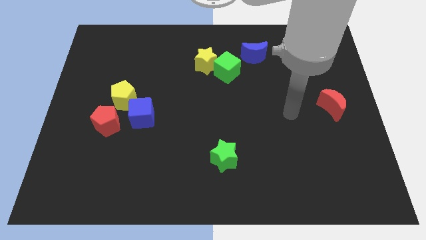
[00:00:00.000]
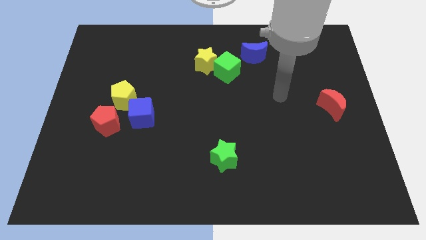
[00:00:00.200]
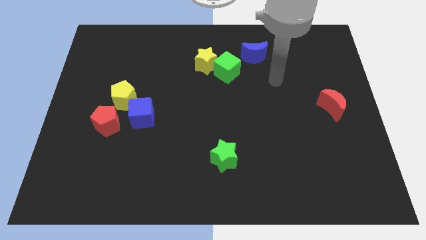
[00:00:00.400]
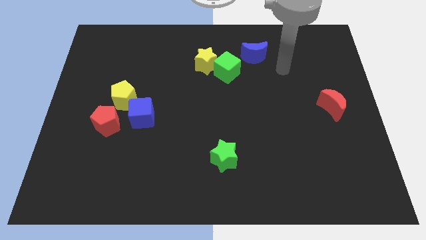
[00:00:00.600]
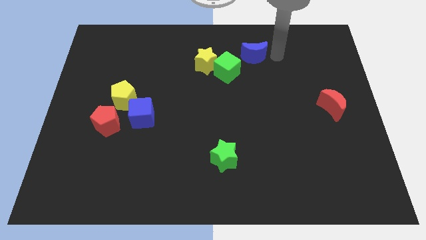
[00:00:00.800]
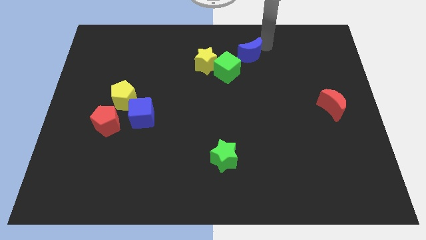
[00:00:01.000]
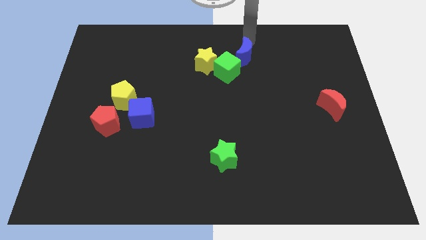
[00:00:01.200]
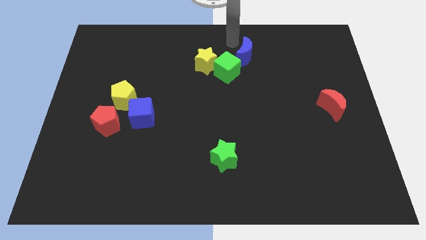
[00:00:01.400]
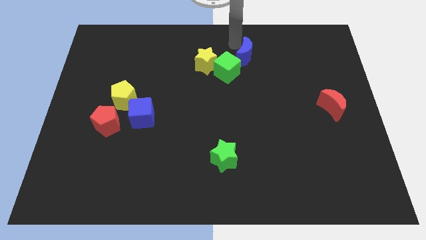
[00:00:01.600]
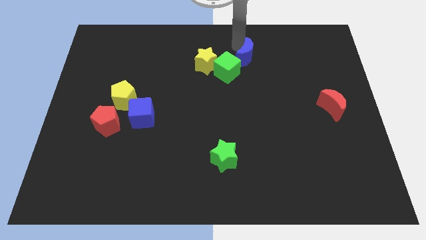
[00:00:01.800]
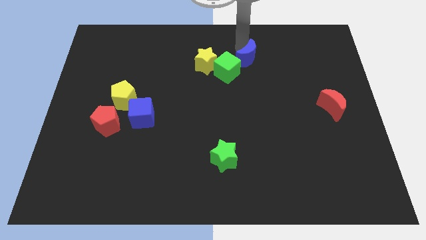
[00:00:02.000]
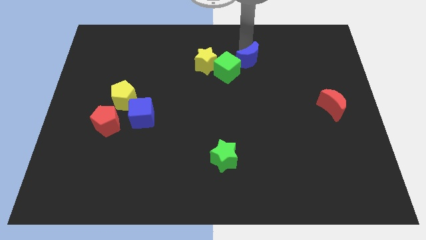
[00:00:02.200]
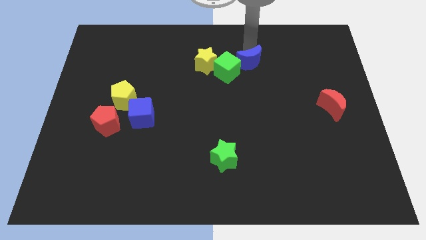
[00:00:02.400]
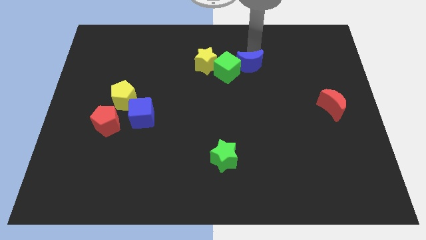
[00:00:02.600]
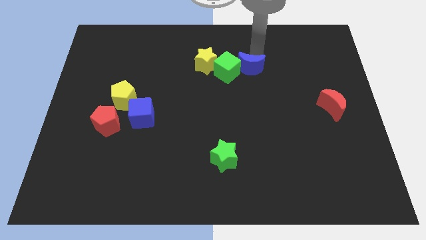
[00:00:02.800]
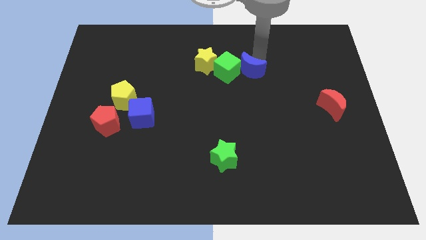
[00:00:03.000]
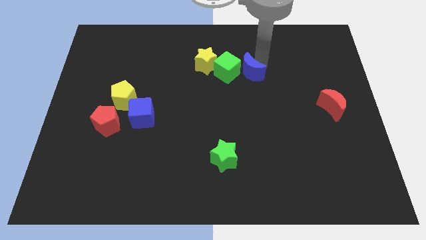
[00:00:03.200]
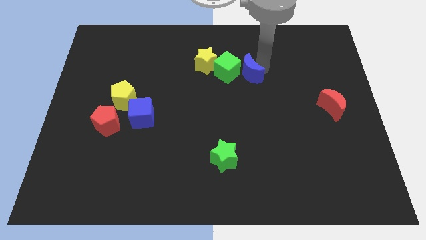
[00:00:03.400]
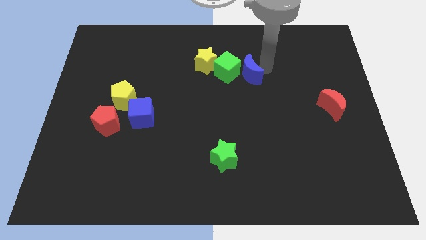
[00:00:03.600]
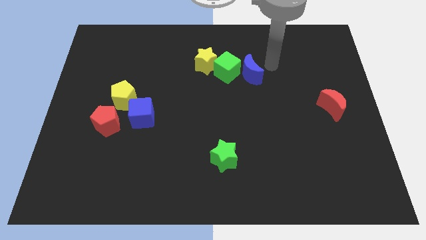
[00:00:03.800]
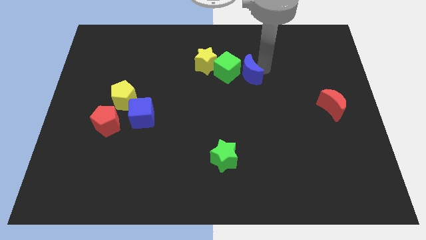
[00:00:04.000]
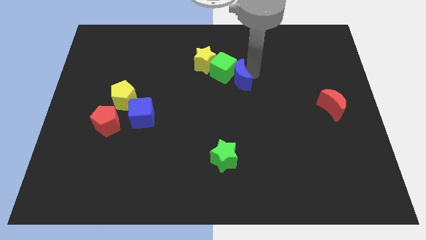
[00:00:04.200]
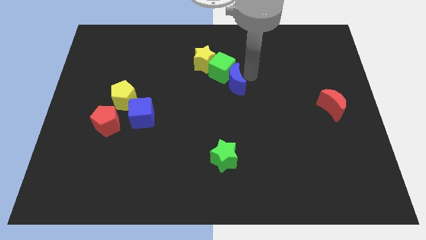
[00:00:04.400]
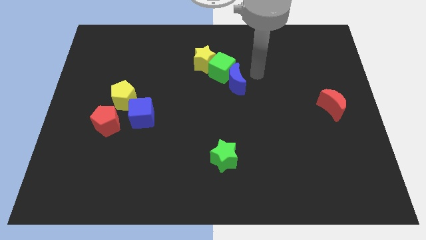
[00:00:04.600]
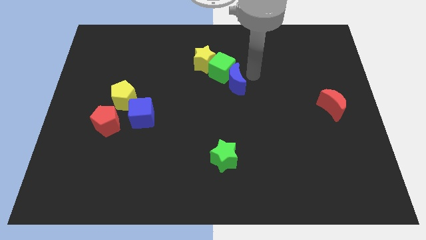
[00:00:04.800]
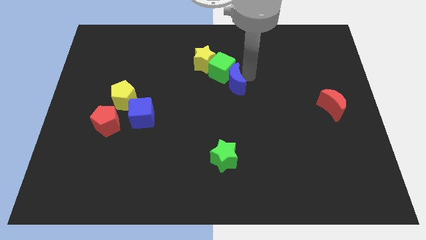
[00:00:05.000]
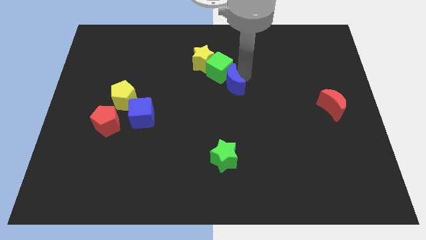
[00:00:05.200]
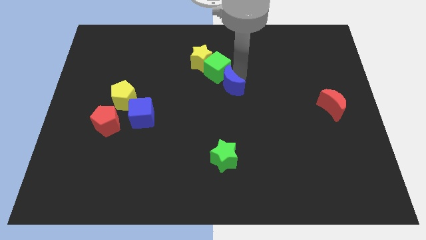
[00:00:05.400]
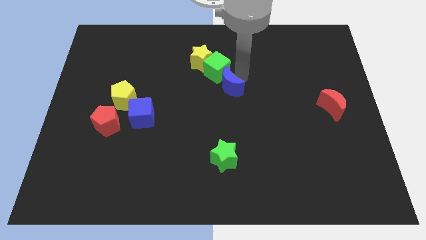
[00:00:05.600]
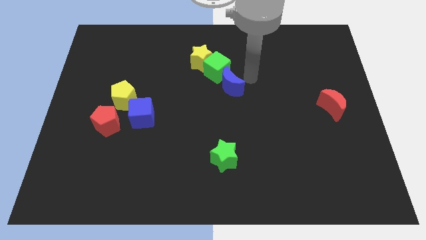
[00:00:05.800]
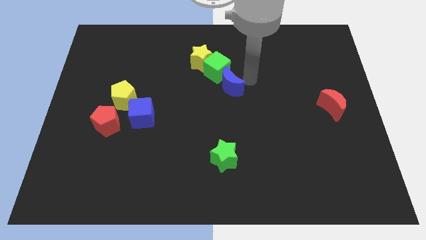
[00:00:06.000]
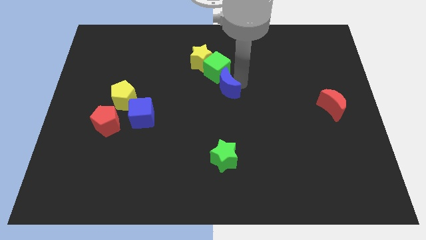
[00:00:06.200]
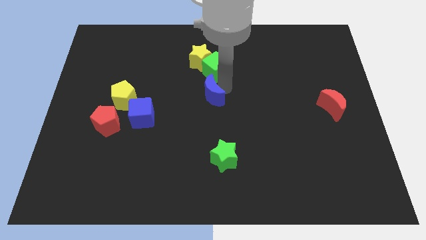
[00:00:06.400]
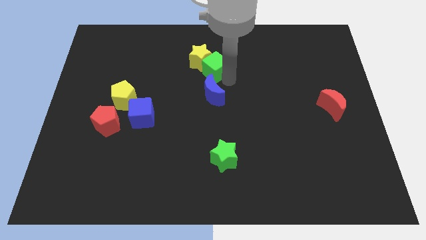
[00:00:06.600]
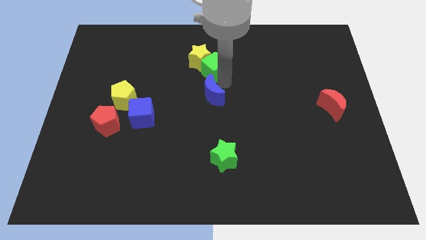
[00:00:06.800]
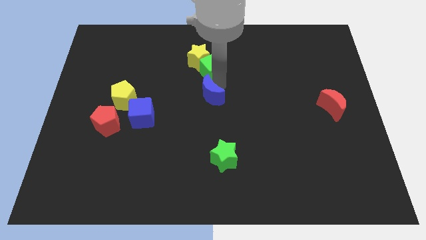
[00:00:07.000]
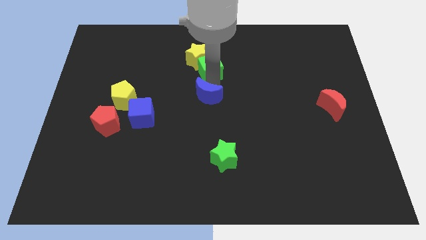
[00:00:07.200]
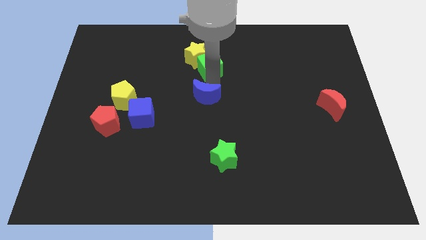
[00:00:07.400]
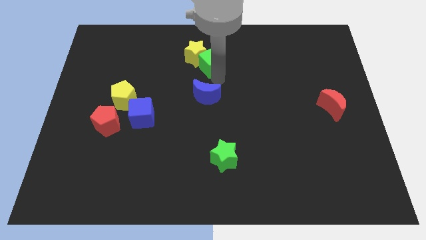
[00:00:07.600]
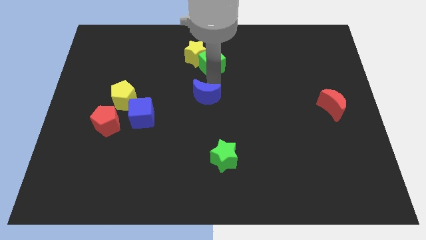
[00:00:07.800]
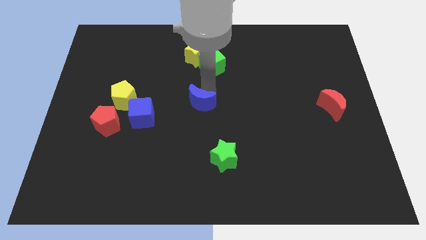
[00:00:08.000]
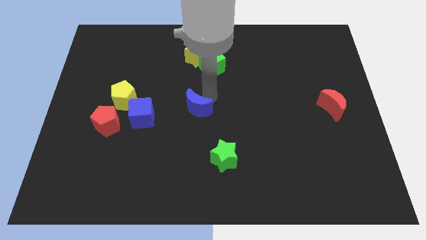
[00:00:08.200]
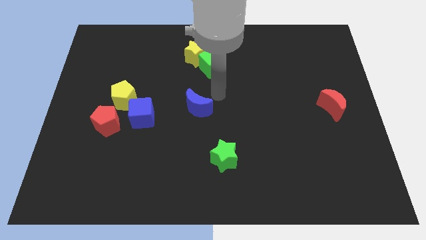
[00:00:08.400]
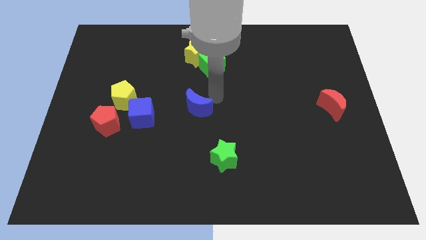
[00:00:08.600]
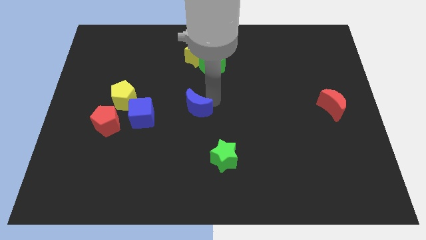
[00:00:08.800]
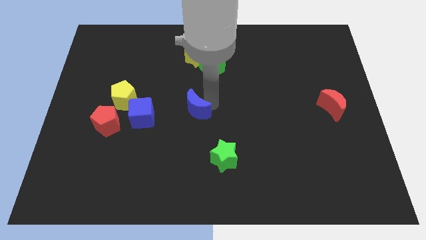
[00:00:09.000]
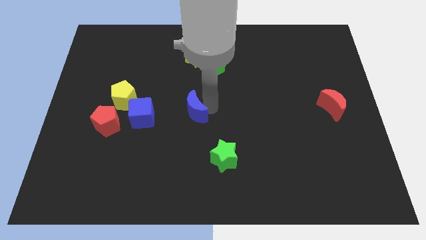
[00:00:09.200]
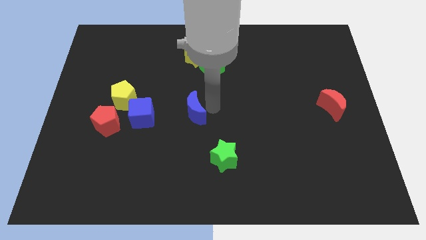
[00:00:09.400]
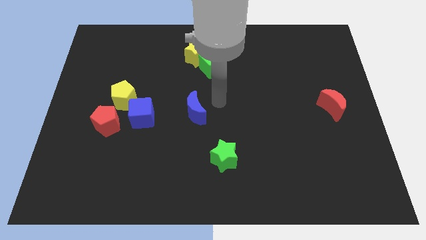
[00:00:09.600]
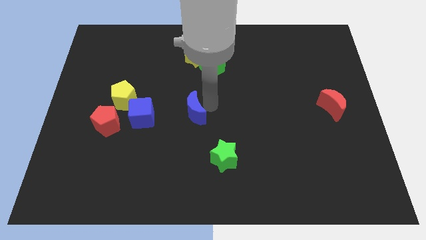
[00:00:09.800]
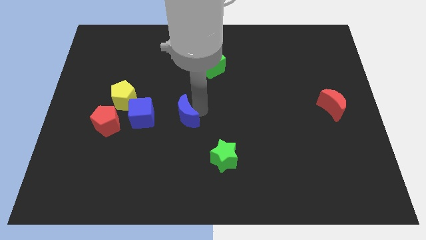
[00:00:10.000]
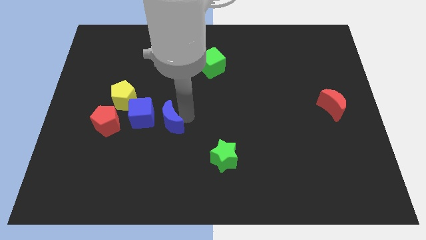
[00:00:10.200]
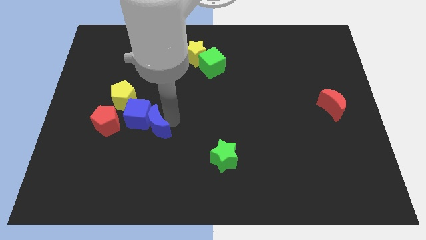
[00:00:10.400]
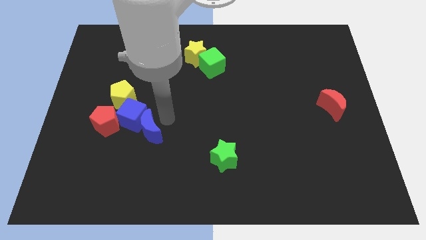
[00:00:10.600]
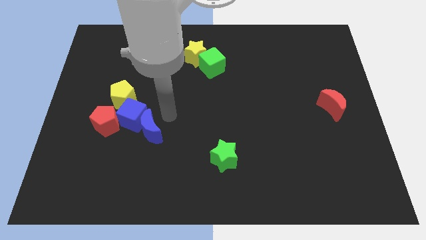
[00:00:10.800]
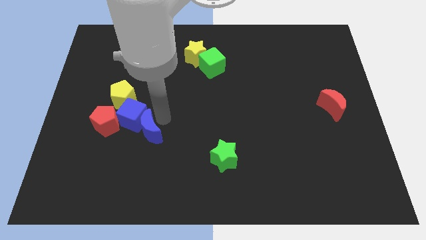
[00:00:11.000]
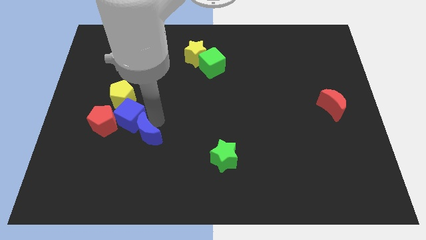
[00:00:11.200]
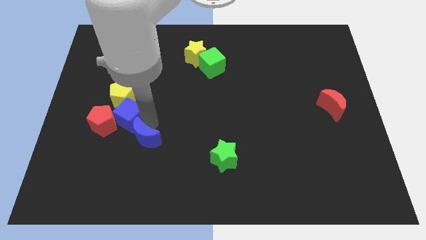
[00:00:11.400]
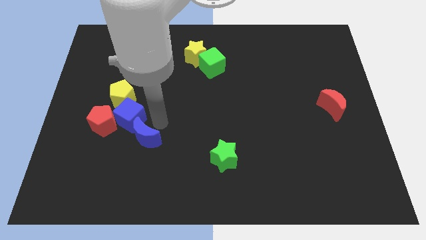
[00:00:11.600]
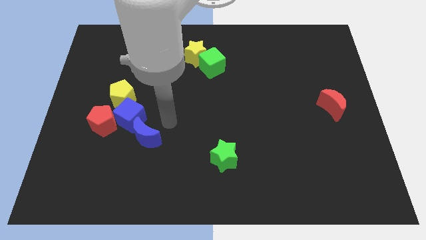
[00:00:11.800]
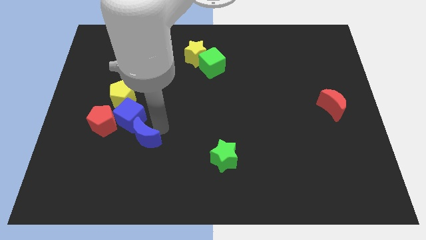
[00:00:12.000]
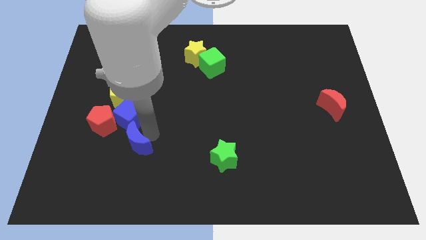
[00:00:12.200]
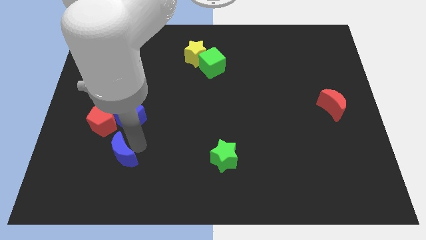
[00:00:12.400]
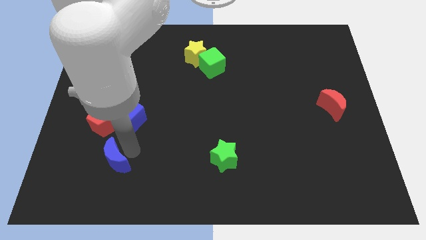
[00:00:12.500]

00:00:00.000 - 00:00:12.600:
slide the blue moon below the red pentagon
